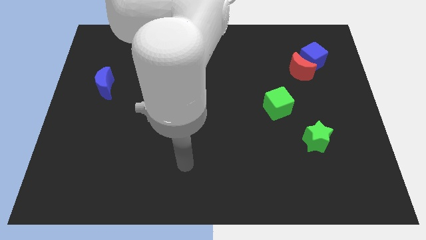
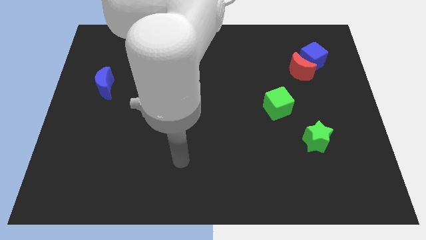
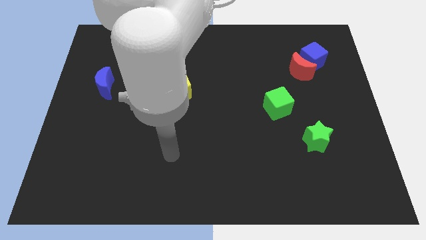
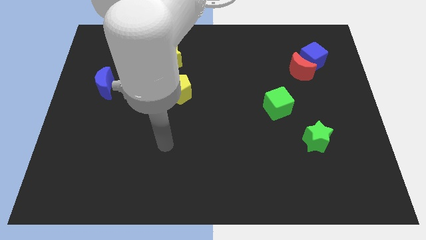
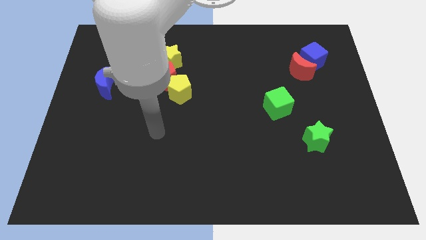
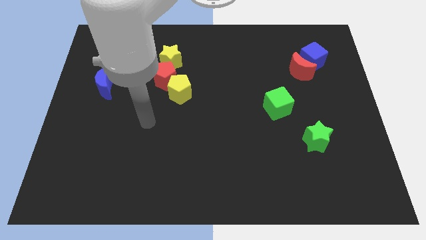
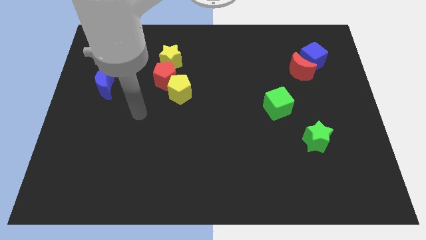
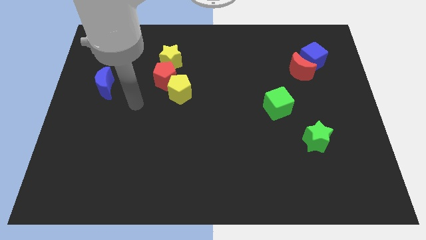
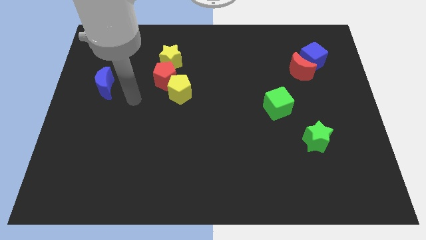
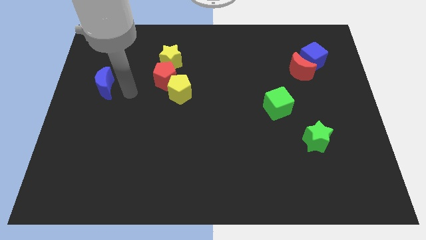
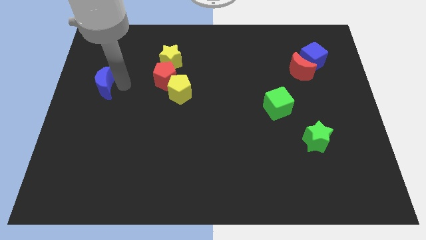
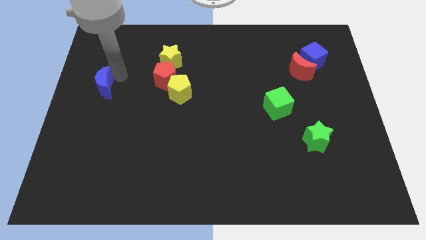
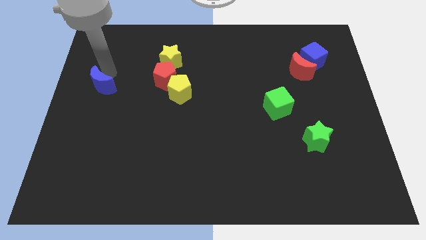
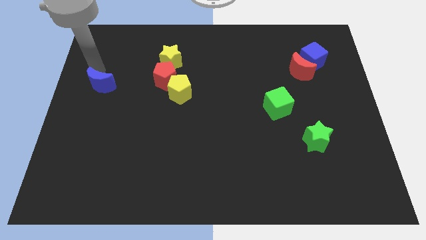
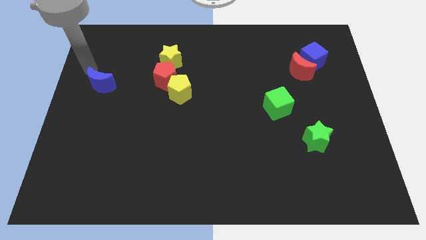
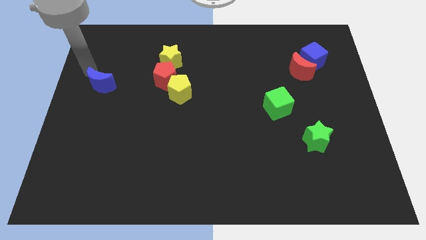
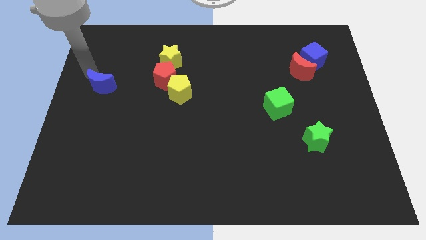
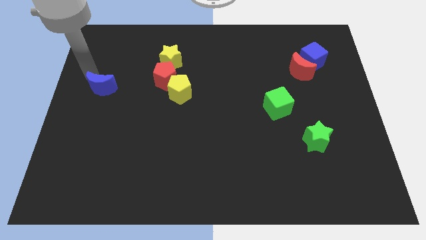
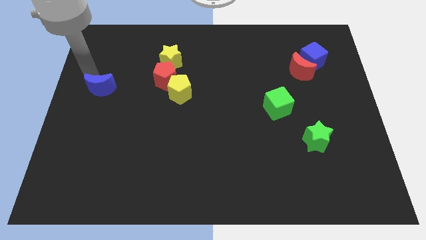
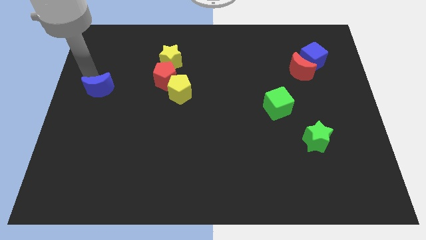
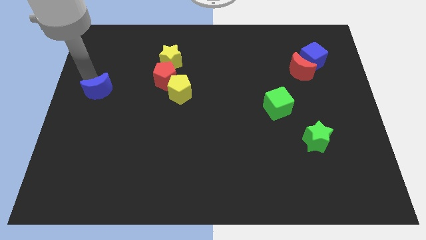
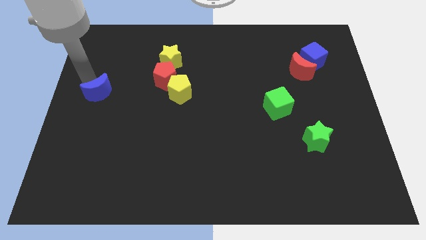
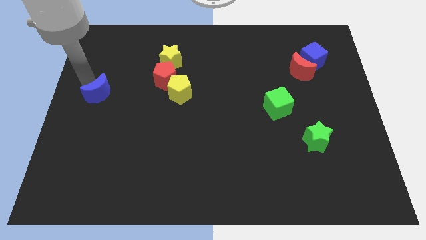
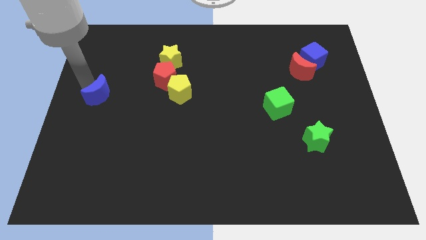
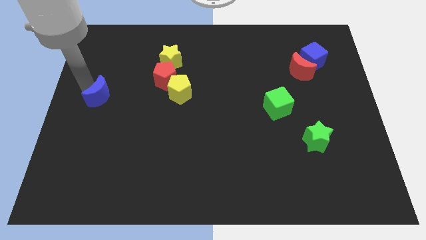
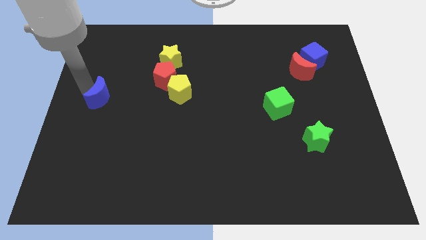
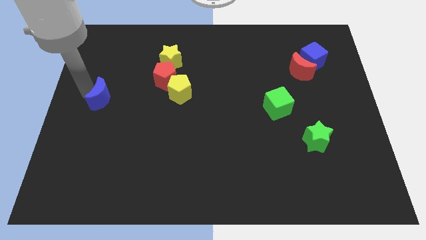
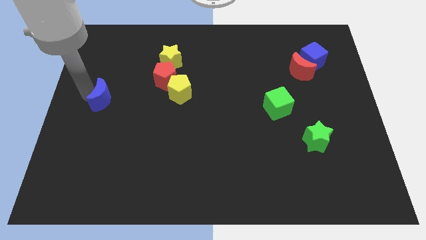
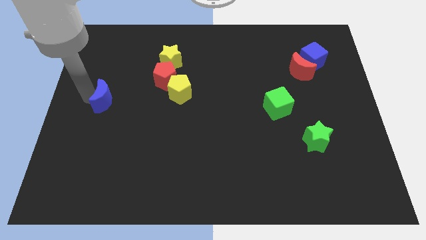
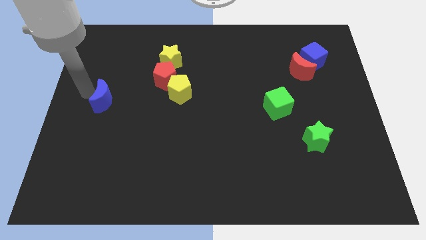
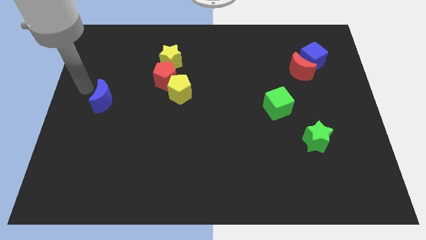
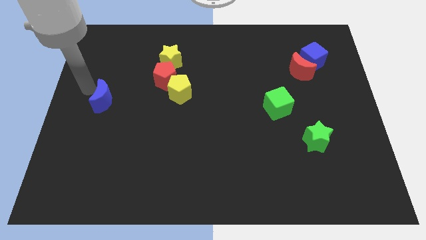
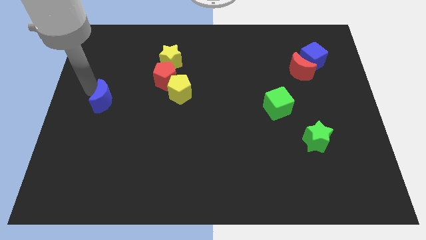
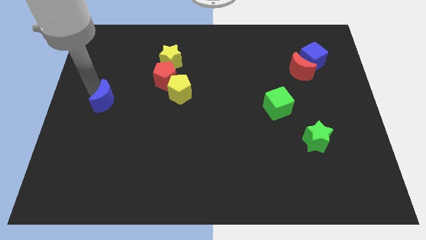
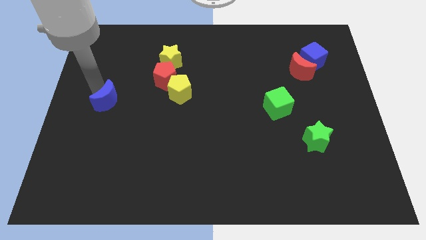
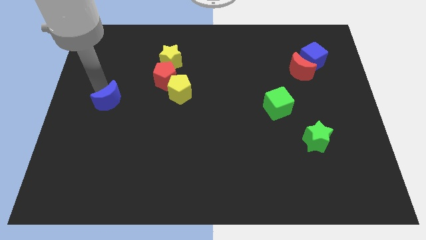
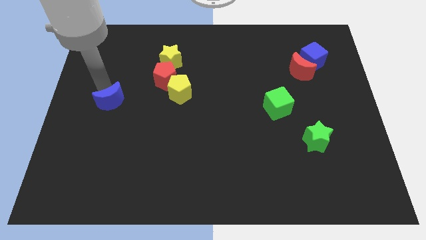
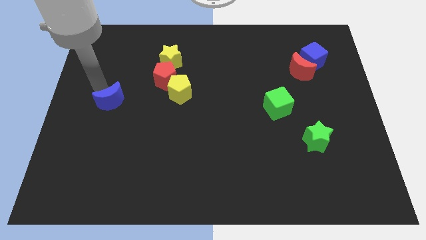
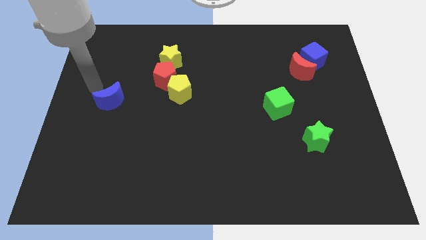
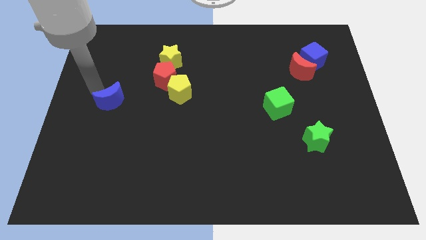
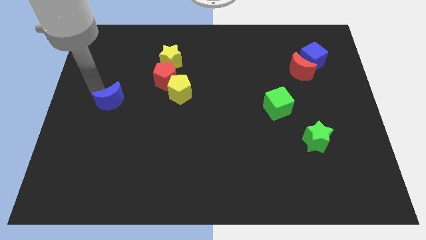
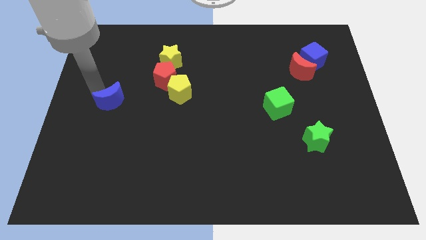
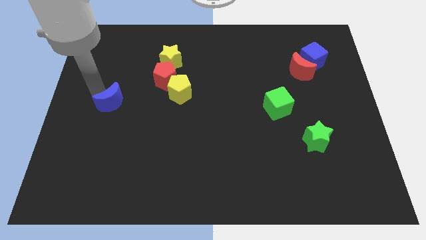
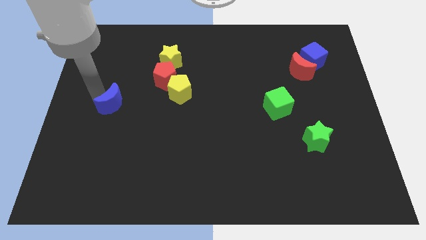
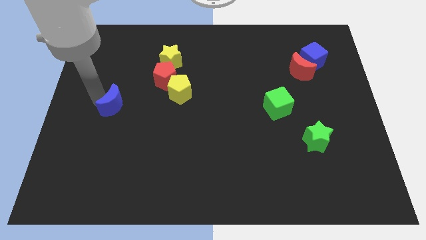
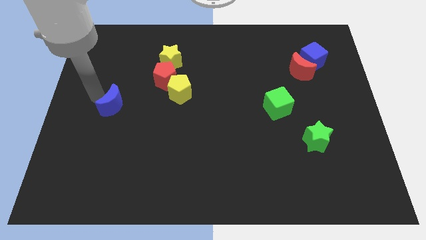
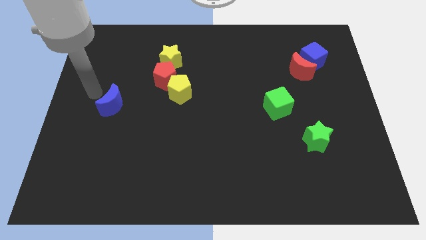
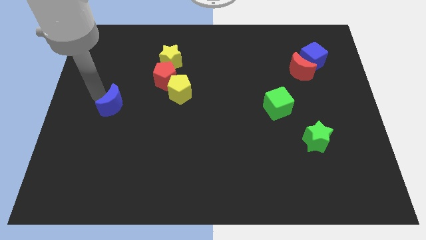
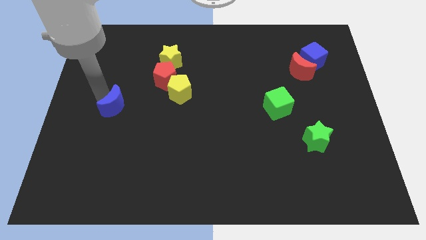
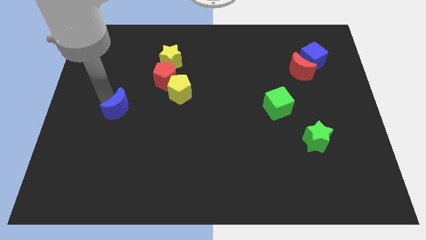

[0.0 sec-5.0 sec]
move the blue moon a little downwards and to the right

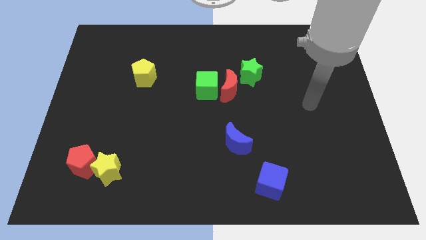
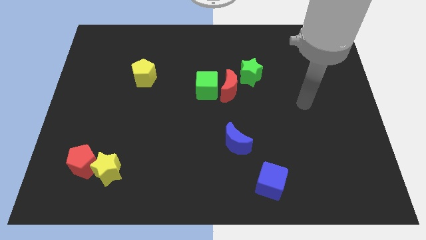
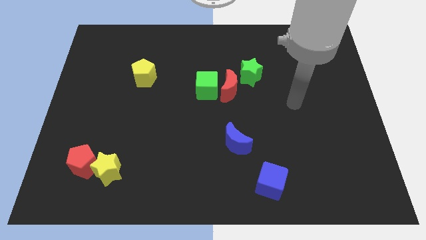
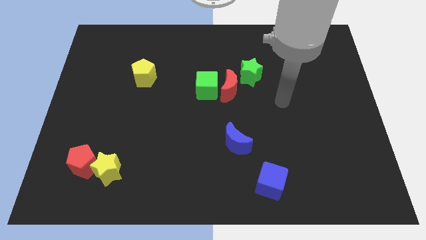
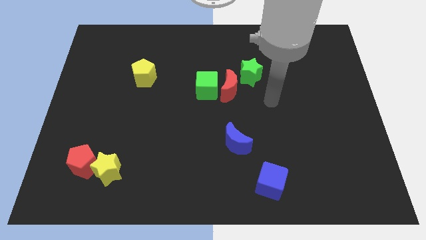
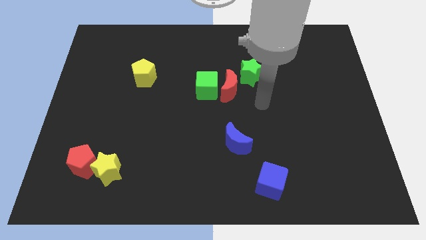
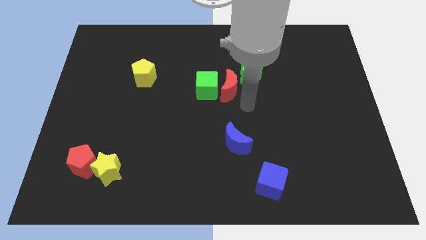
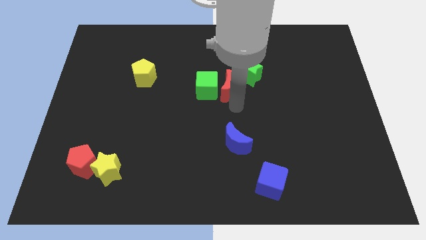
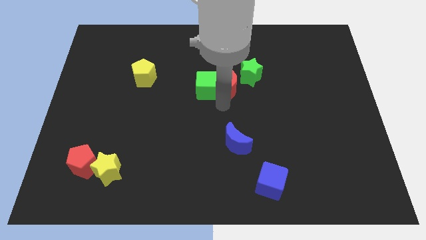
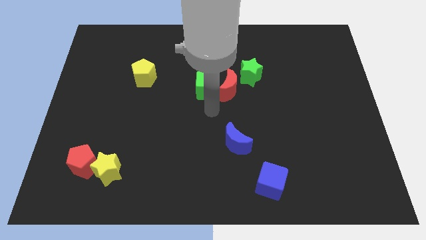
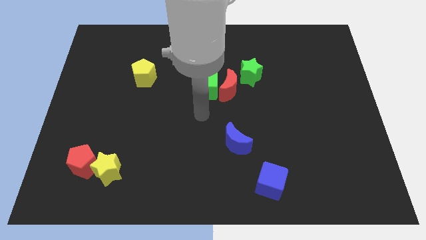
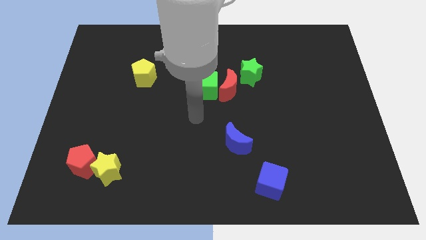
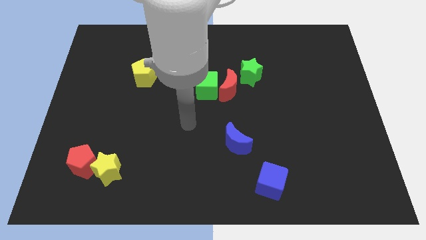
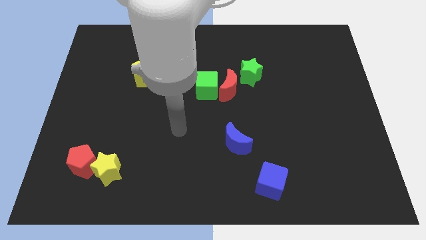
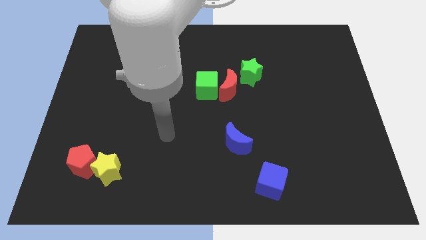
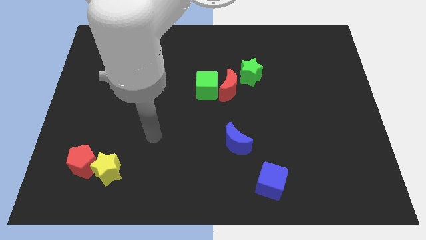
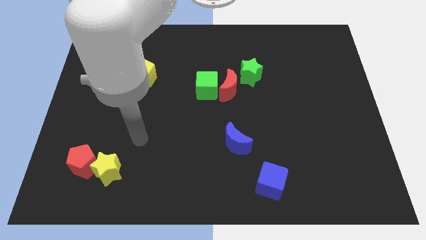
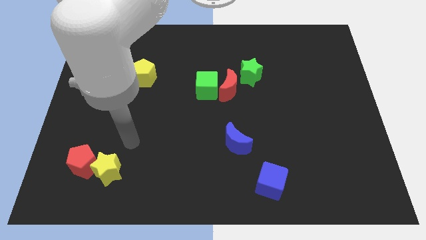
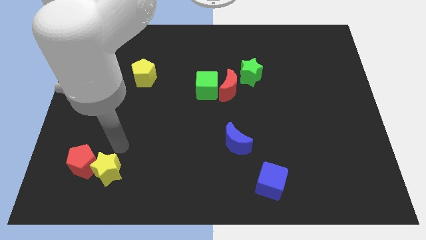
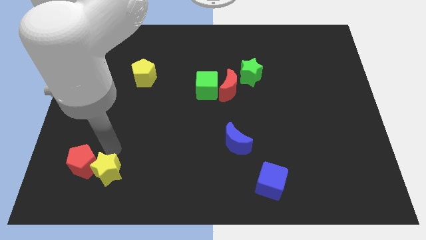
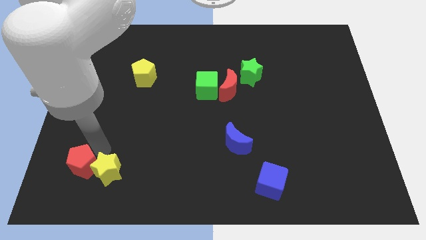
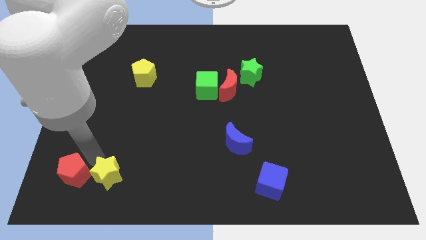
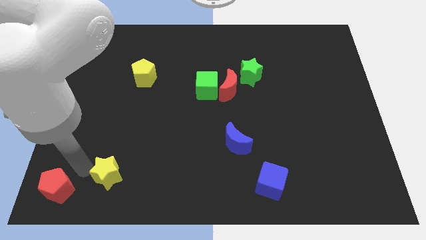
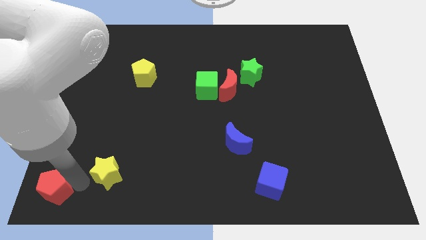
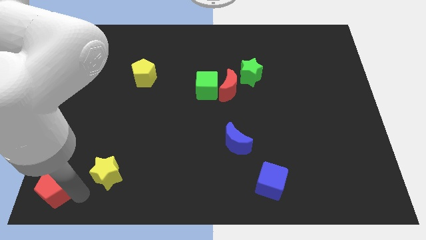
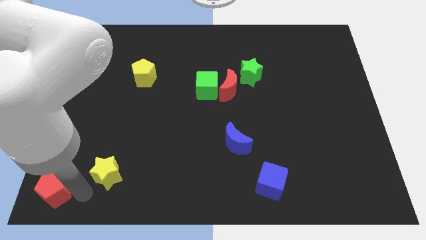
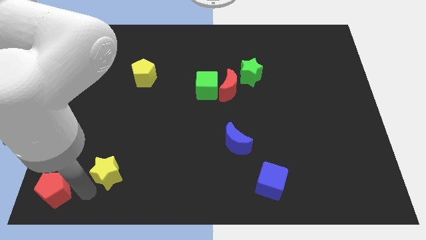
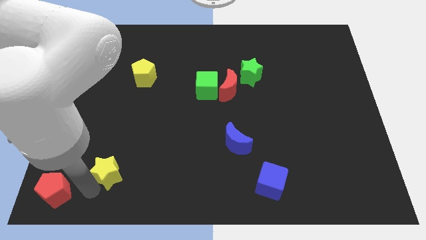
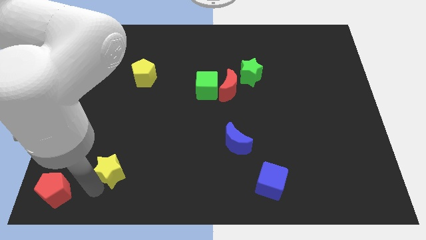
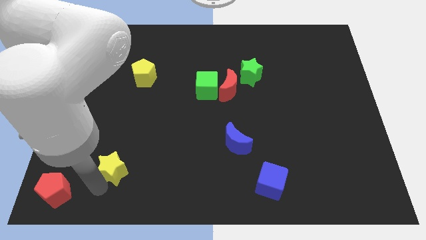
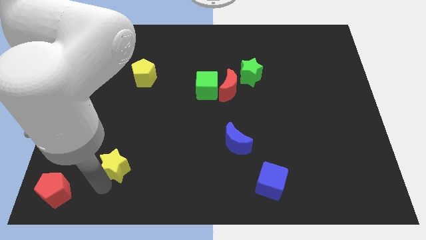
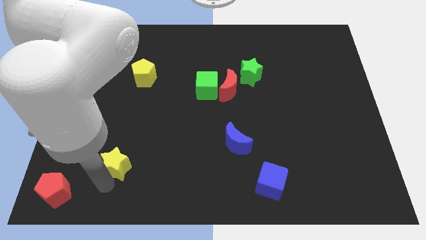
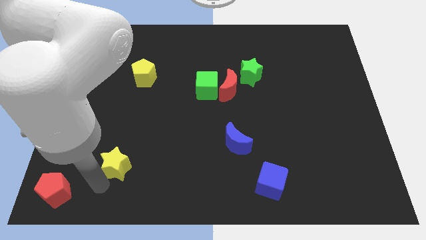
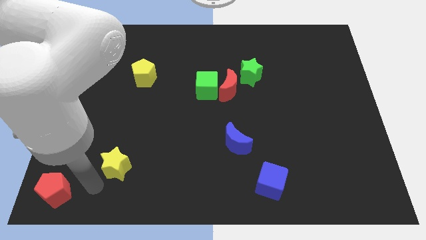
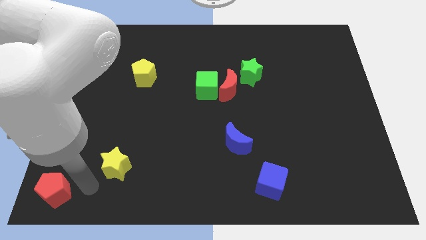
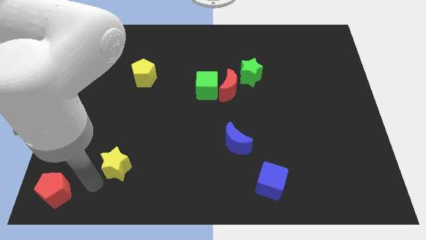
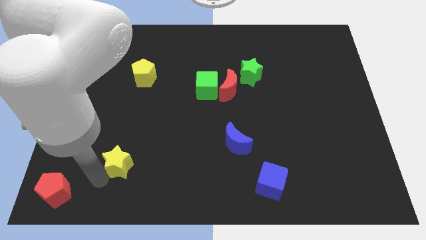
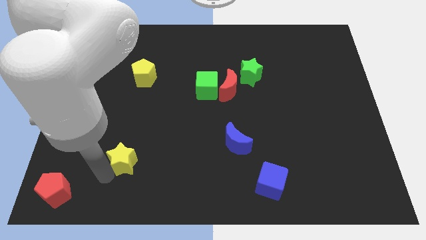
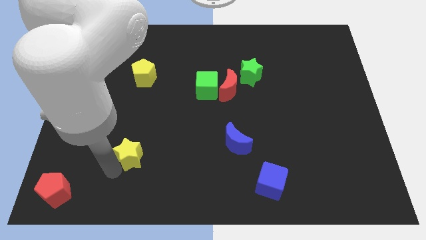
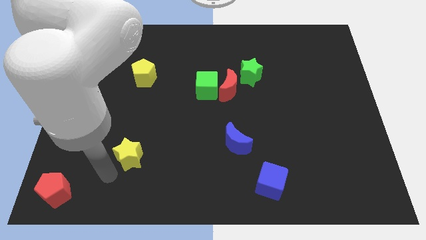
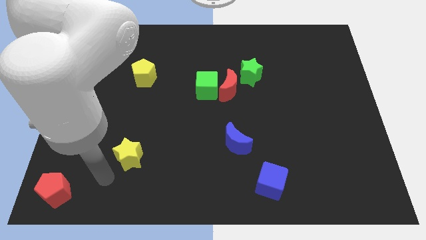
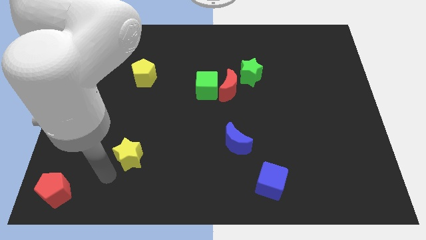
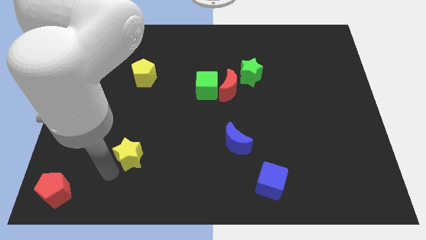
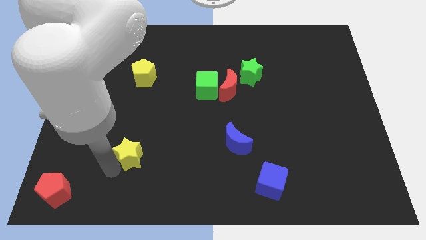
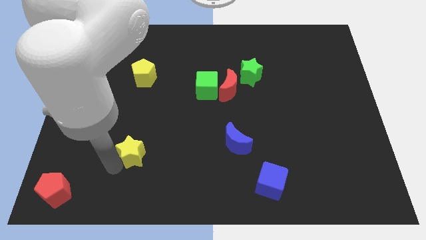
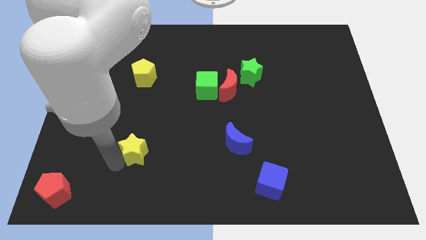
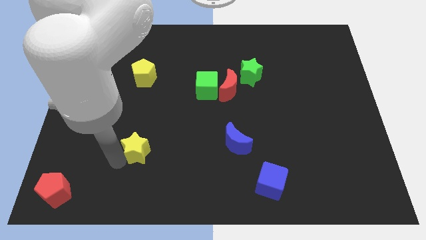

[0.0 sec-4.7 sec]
slightly push the yellow star upwards and then to the right
